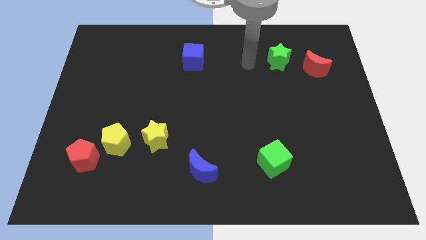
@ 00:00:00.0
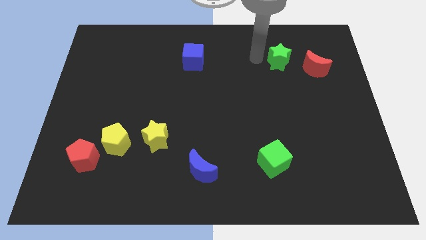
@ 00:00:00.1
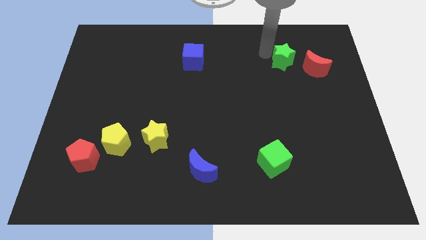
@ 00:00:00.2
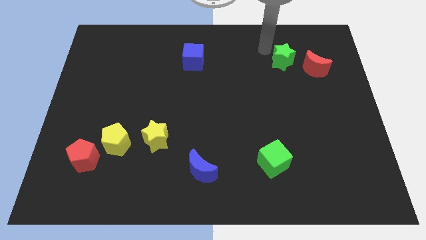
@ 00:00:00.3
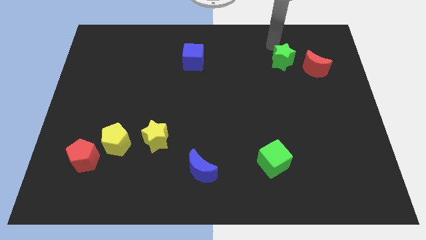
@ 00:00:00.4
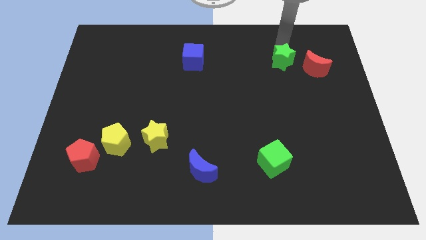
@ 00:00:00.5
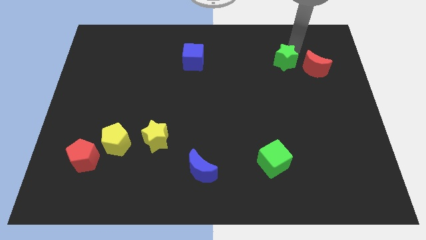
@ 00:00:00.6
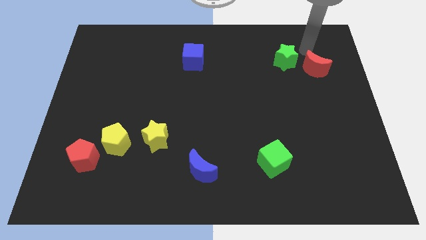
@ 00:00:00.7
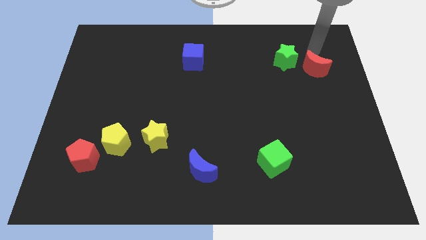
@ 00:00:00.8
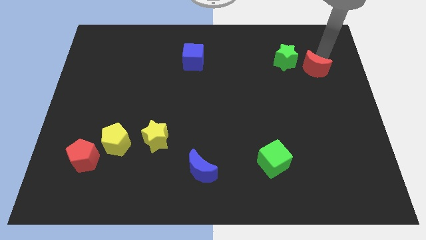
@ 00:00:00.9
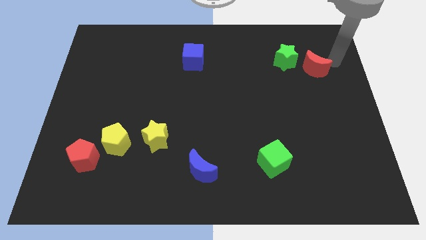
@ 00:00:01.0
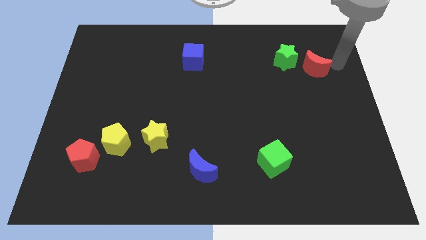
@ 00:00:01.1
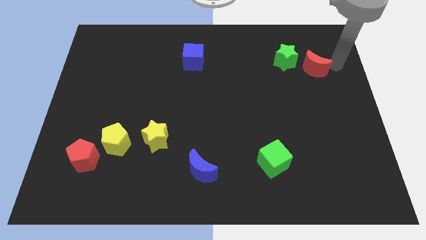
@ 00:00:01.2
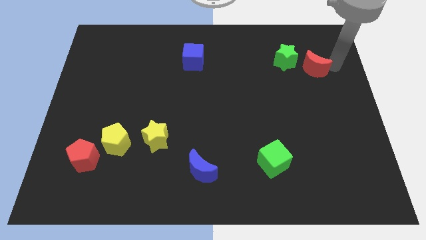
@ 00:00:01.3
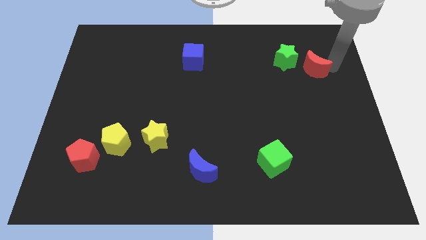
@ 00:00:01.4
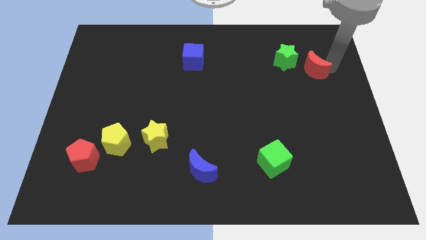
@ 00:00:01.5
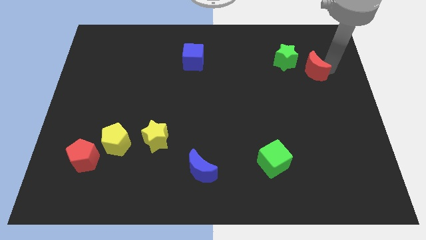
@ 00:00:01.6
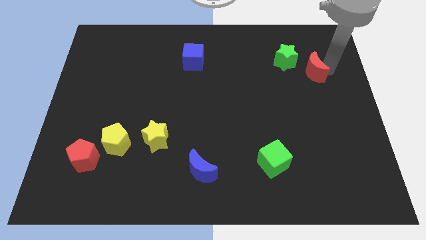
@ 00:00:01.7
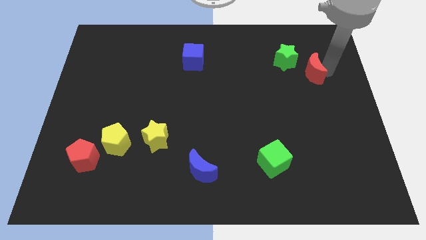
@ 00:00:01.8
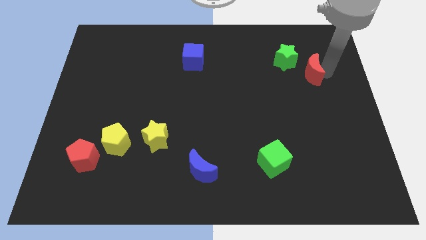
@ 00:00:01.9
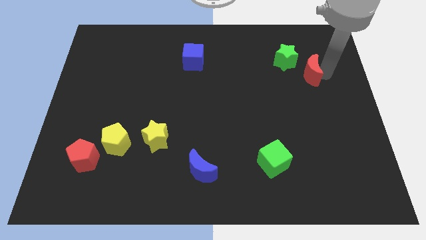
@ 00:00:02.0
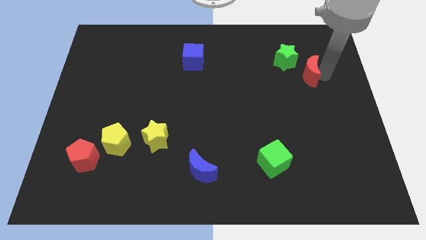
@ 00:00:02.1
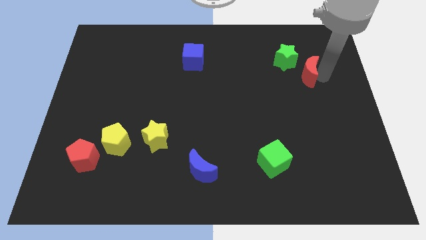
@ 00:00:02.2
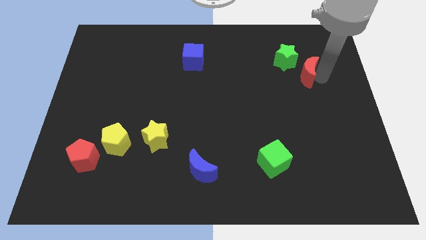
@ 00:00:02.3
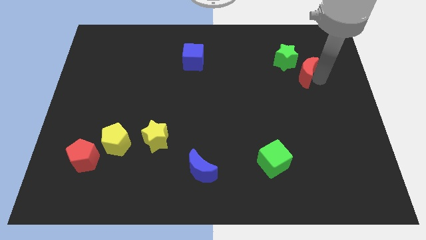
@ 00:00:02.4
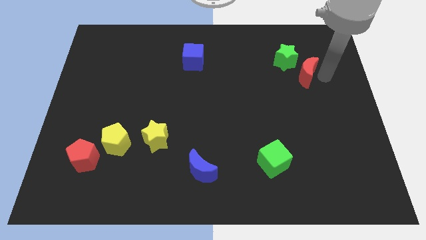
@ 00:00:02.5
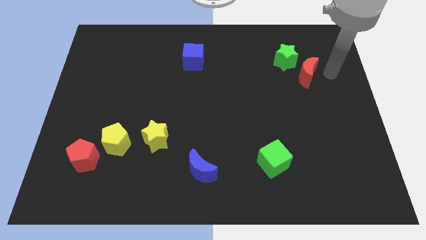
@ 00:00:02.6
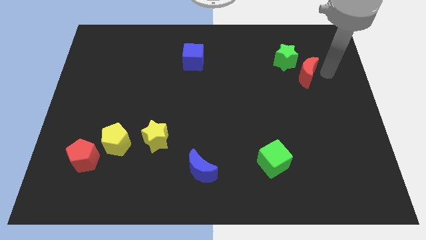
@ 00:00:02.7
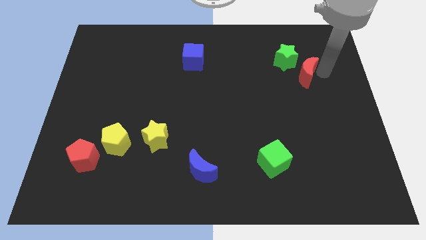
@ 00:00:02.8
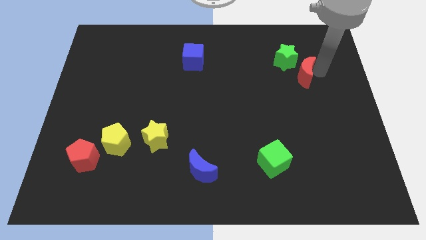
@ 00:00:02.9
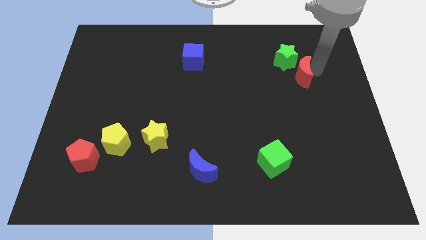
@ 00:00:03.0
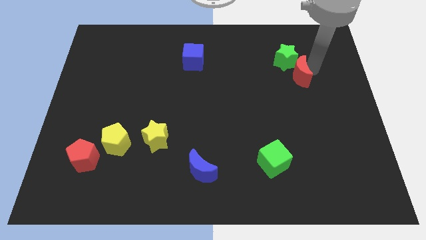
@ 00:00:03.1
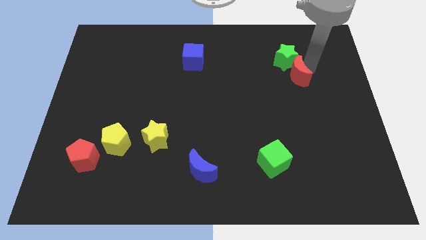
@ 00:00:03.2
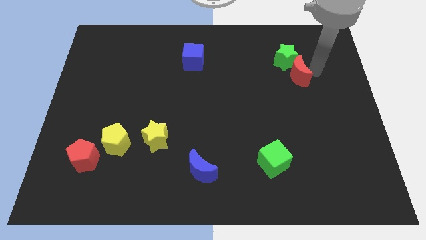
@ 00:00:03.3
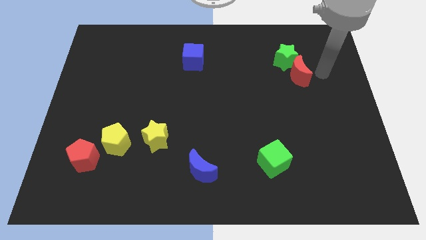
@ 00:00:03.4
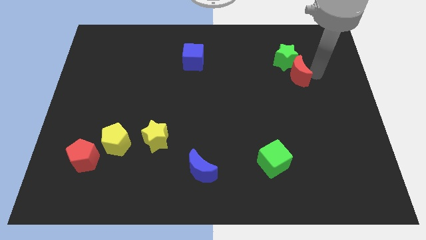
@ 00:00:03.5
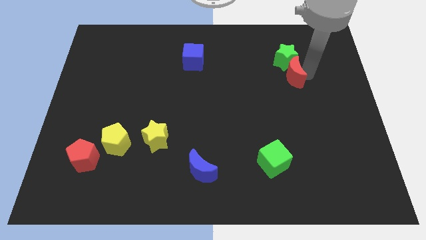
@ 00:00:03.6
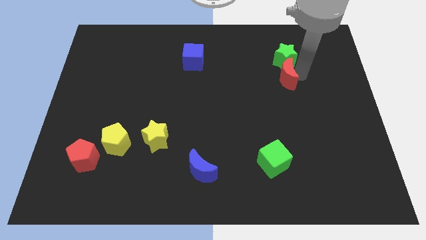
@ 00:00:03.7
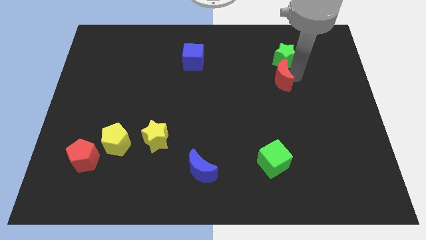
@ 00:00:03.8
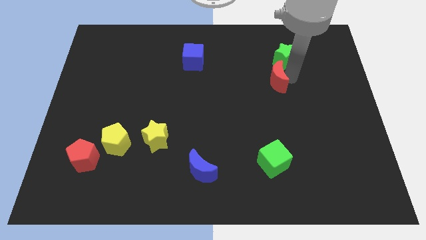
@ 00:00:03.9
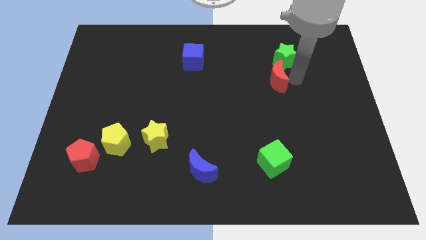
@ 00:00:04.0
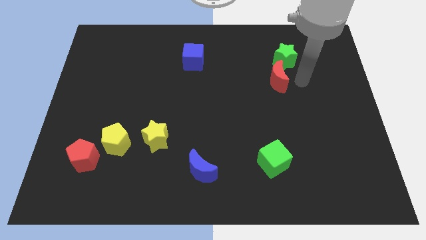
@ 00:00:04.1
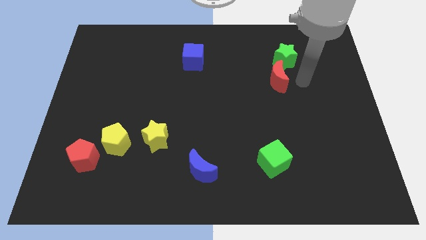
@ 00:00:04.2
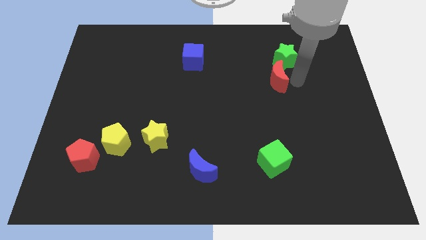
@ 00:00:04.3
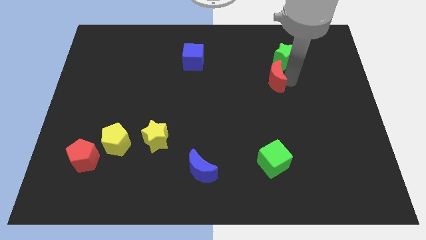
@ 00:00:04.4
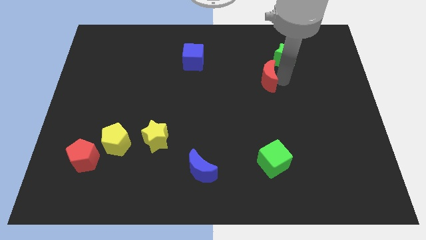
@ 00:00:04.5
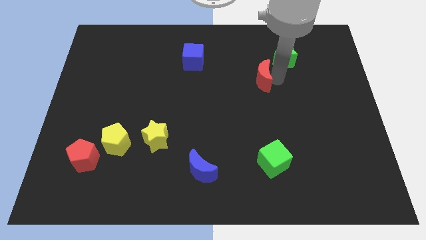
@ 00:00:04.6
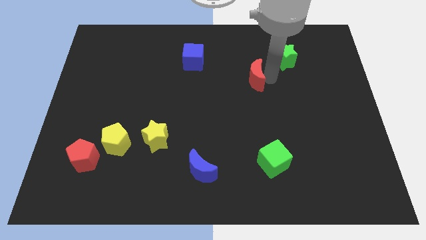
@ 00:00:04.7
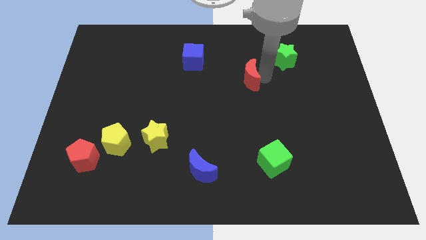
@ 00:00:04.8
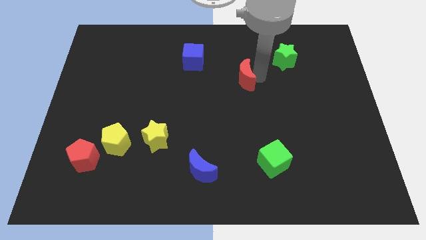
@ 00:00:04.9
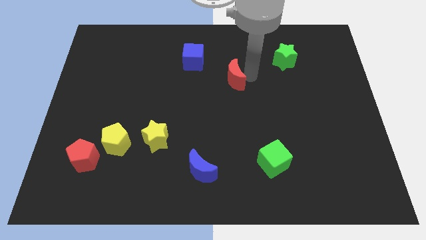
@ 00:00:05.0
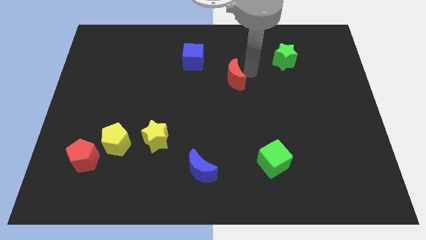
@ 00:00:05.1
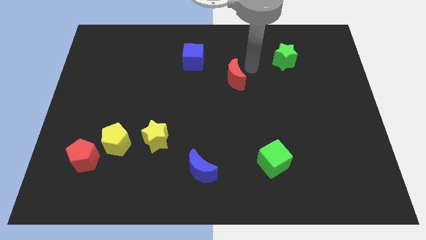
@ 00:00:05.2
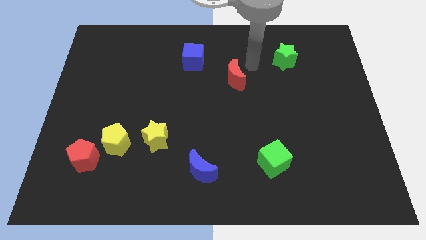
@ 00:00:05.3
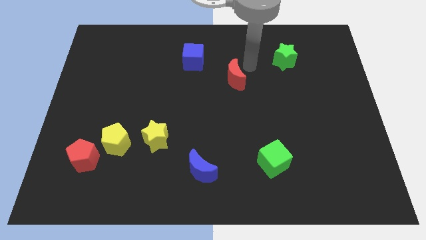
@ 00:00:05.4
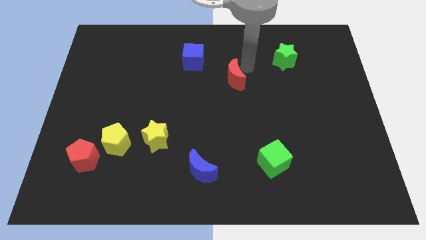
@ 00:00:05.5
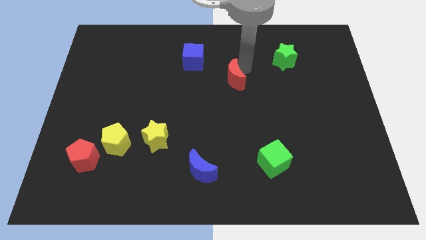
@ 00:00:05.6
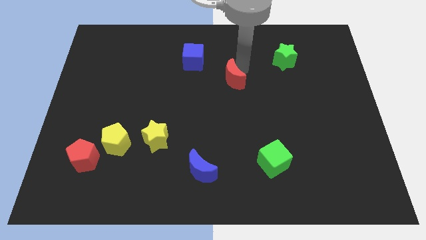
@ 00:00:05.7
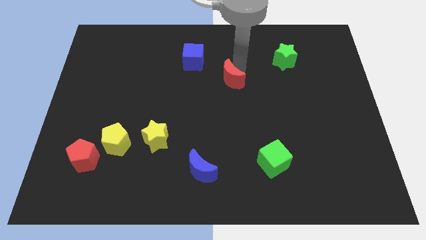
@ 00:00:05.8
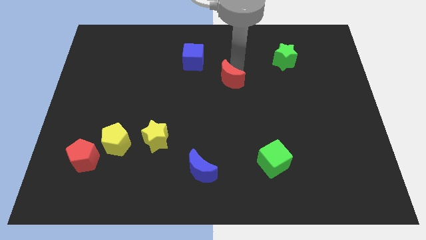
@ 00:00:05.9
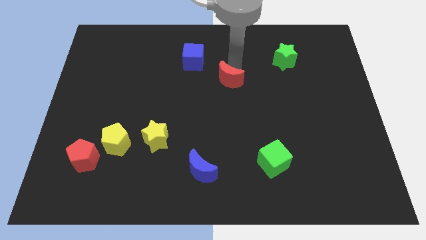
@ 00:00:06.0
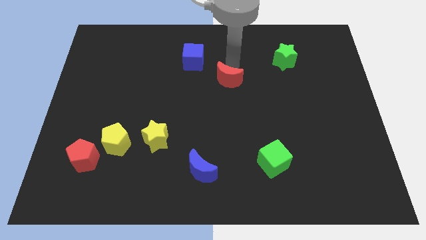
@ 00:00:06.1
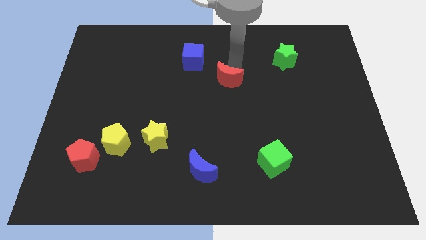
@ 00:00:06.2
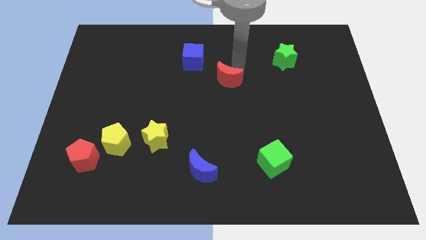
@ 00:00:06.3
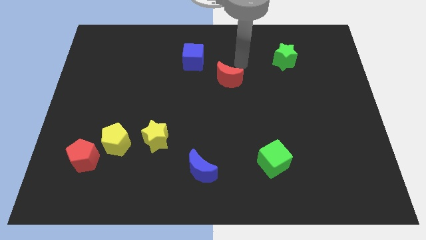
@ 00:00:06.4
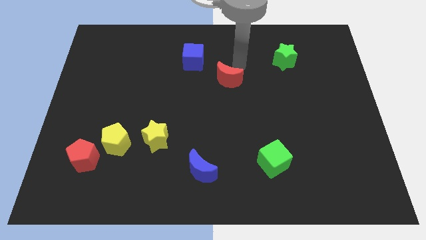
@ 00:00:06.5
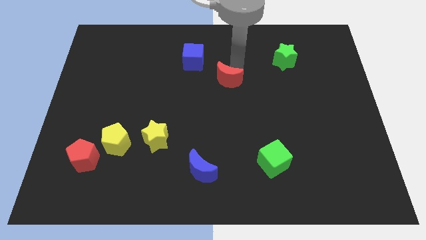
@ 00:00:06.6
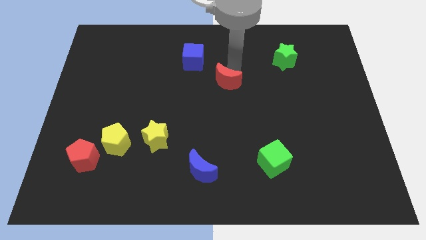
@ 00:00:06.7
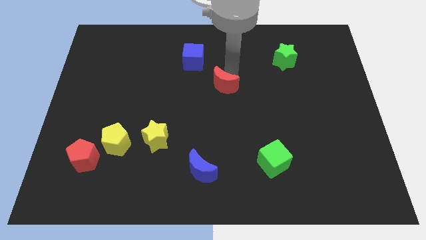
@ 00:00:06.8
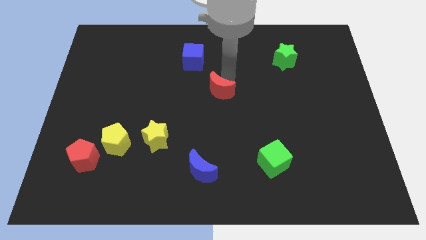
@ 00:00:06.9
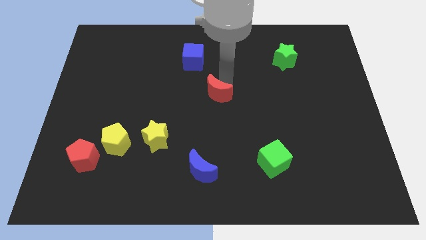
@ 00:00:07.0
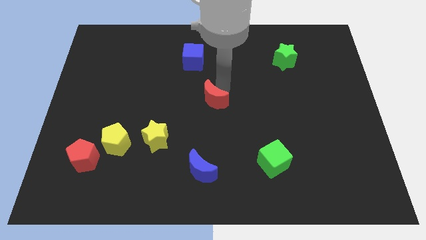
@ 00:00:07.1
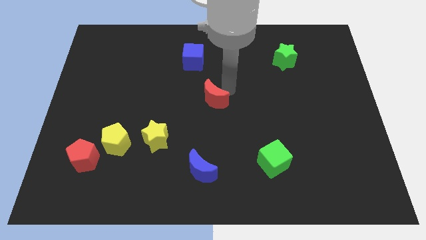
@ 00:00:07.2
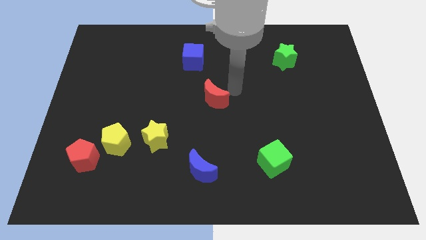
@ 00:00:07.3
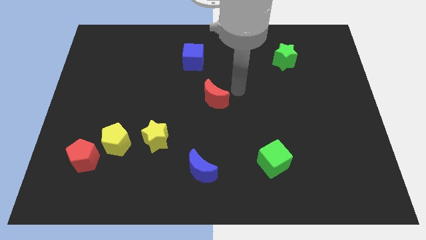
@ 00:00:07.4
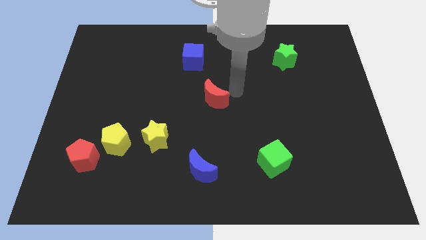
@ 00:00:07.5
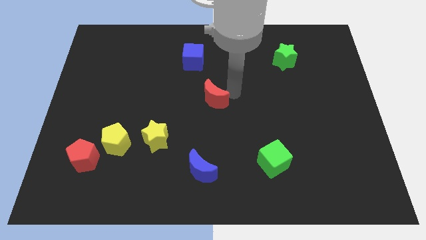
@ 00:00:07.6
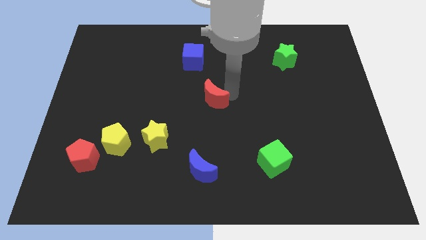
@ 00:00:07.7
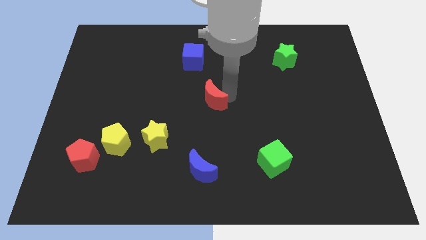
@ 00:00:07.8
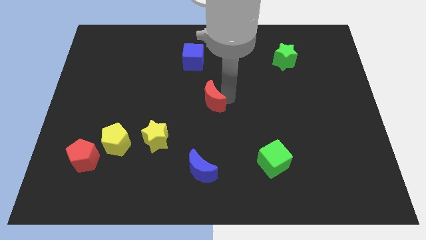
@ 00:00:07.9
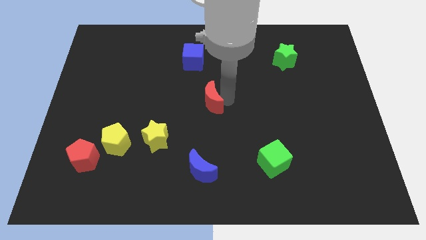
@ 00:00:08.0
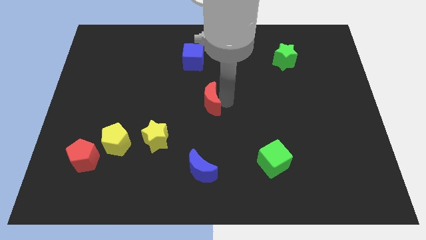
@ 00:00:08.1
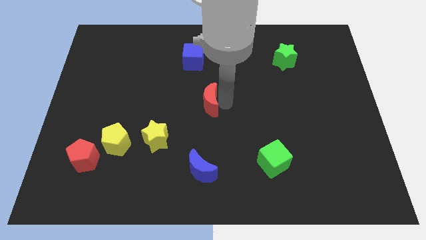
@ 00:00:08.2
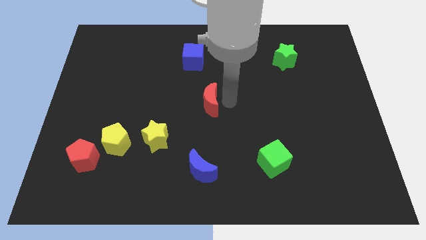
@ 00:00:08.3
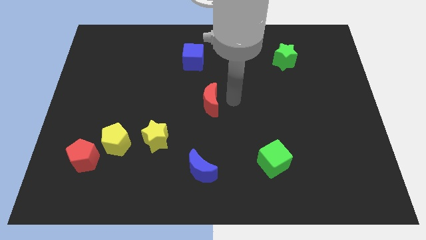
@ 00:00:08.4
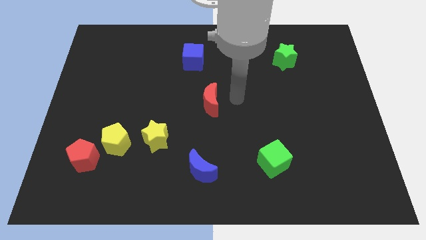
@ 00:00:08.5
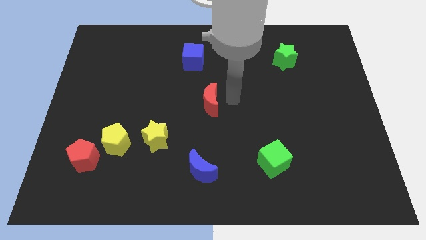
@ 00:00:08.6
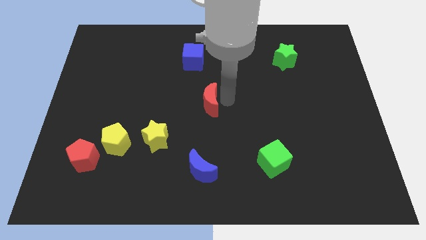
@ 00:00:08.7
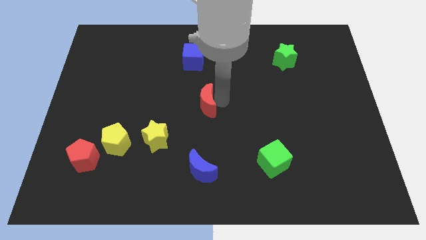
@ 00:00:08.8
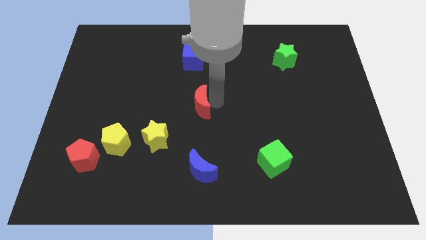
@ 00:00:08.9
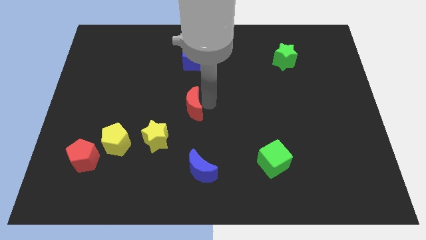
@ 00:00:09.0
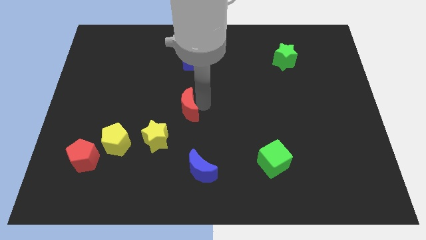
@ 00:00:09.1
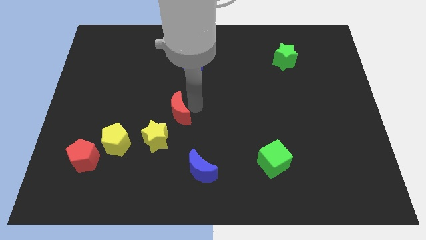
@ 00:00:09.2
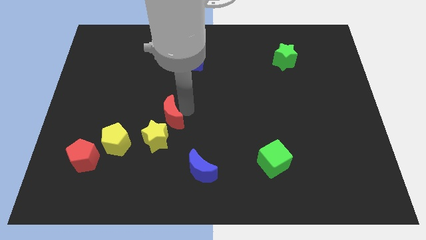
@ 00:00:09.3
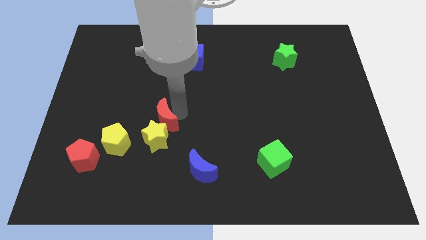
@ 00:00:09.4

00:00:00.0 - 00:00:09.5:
put the red moon to the top right of the yellow pentagon
